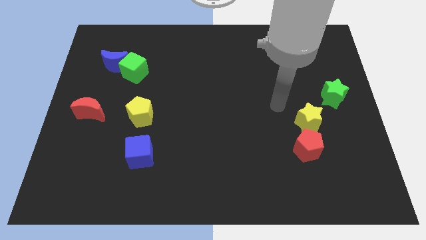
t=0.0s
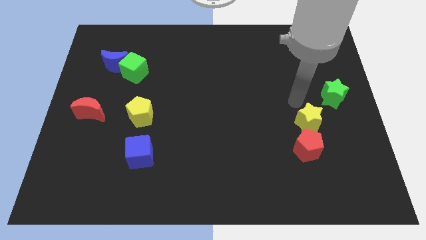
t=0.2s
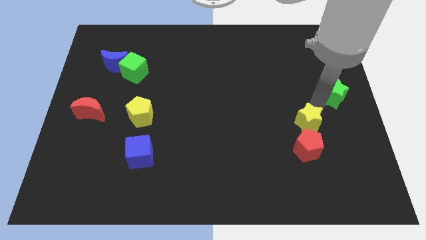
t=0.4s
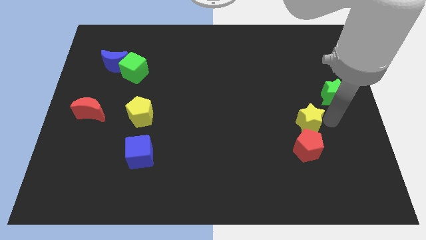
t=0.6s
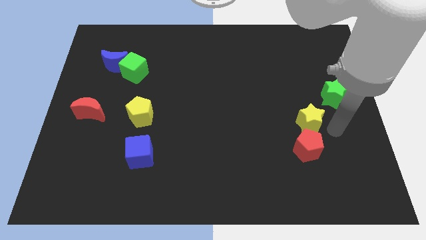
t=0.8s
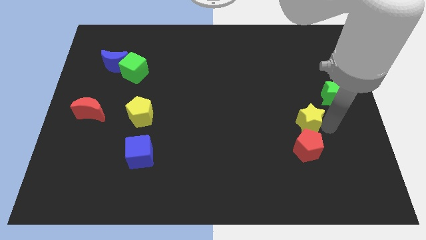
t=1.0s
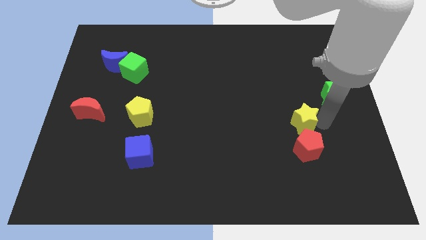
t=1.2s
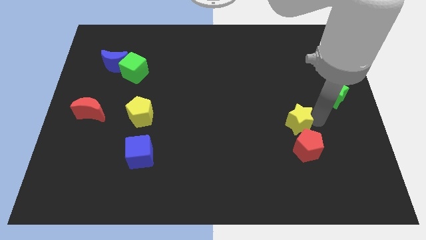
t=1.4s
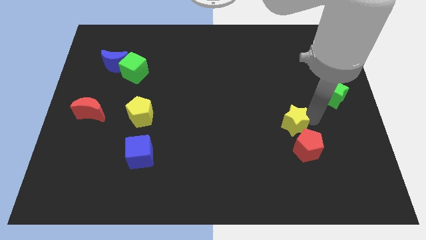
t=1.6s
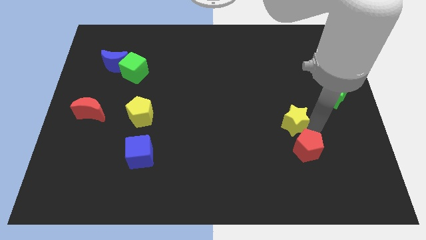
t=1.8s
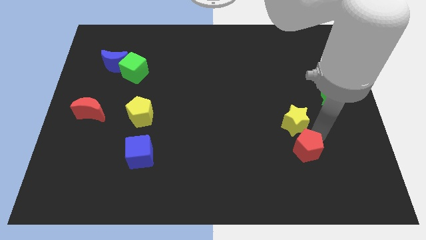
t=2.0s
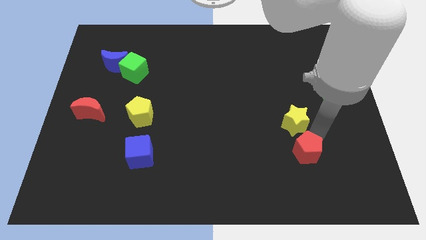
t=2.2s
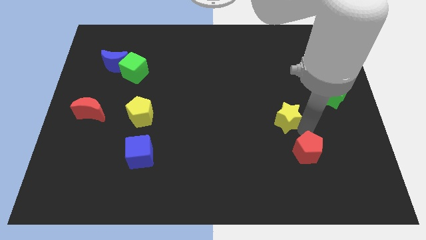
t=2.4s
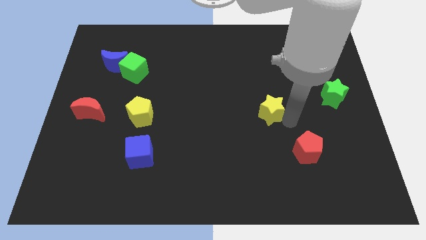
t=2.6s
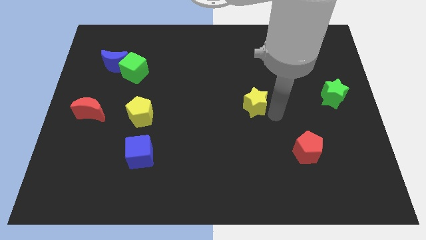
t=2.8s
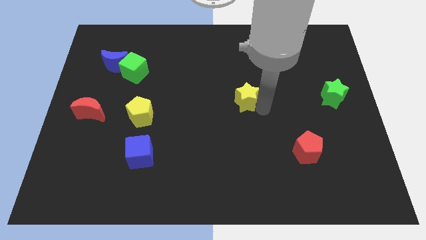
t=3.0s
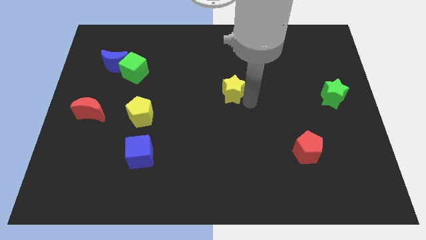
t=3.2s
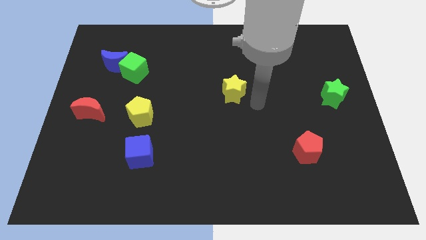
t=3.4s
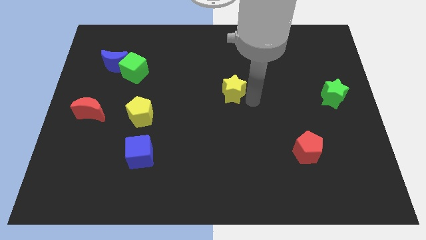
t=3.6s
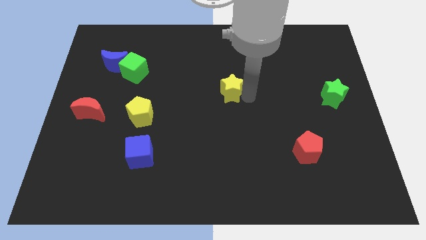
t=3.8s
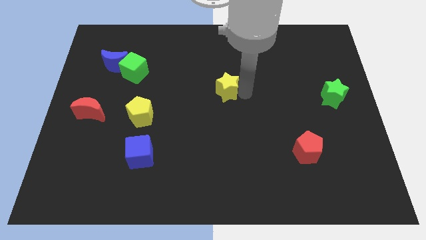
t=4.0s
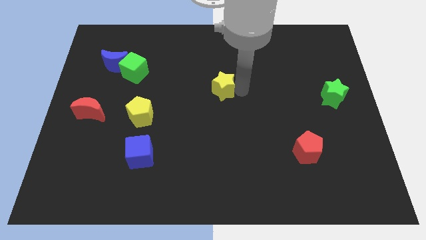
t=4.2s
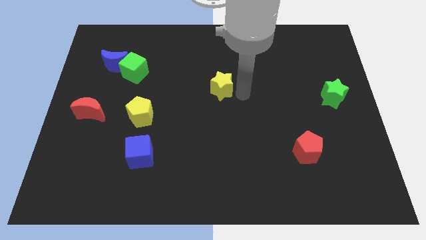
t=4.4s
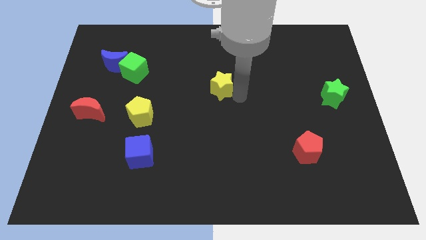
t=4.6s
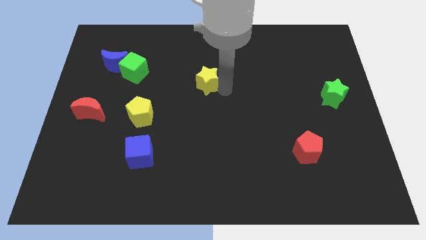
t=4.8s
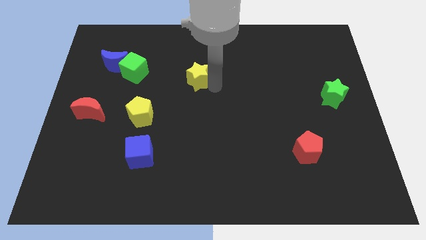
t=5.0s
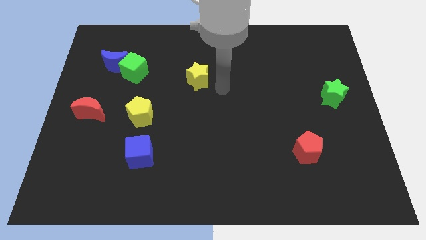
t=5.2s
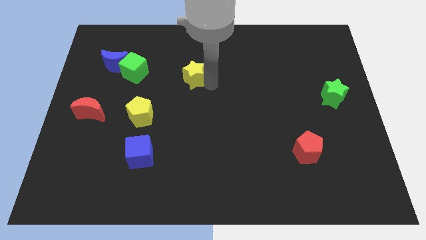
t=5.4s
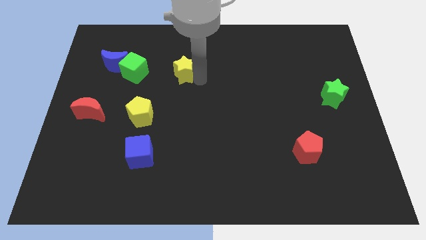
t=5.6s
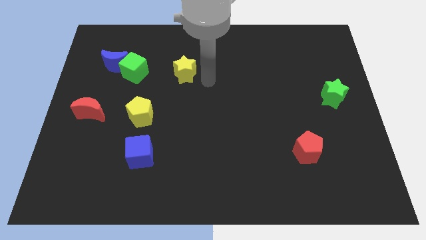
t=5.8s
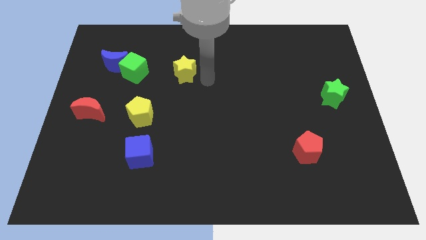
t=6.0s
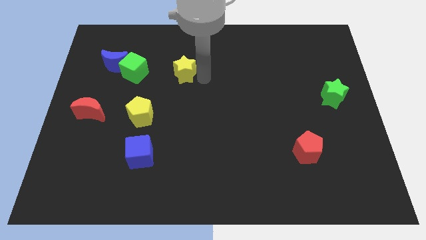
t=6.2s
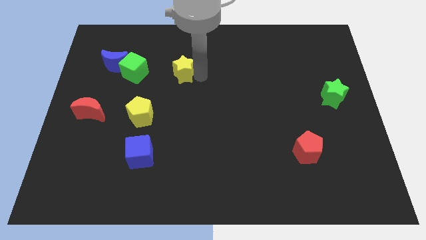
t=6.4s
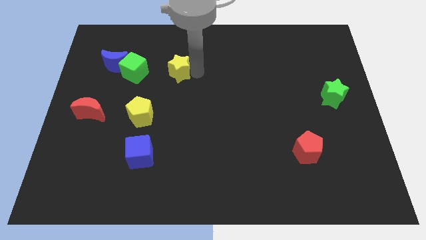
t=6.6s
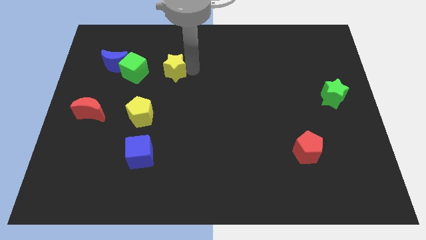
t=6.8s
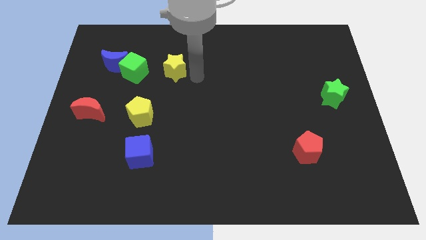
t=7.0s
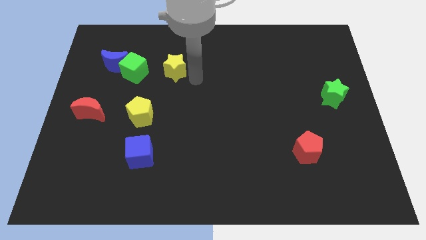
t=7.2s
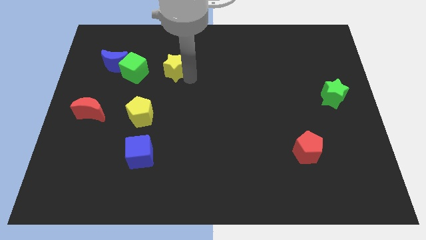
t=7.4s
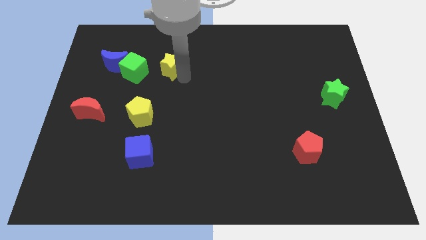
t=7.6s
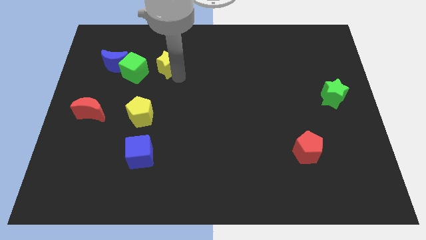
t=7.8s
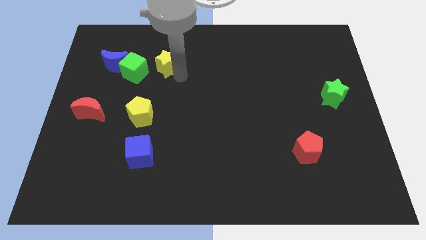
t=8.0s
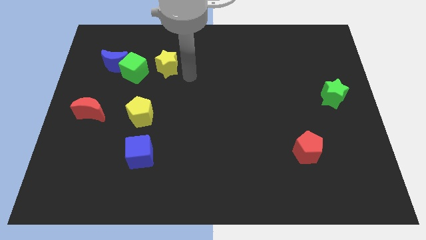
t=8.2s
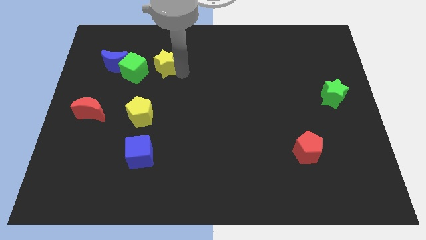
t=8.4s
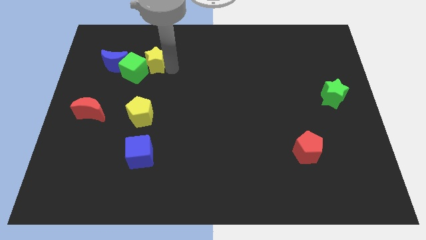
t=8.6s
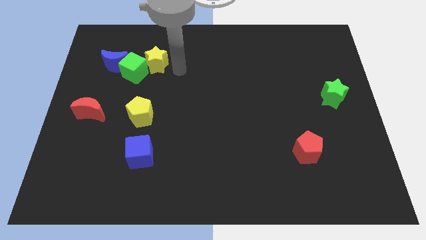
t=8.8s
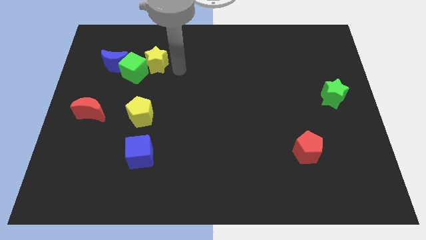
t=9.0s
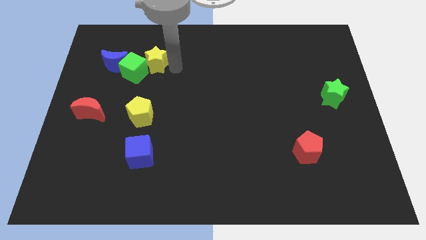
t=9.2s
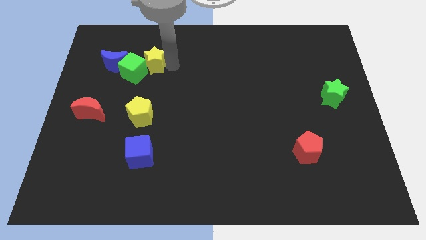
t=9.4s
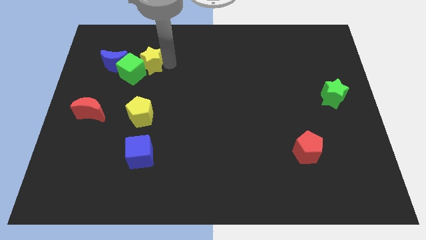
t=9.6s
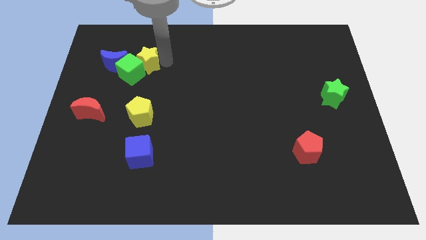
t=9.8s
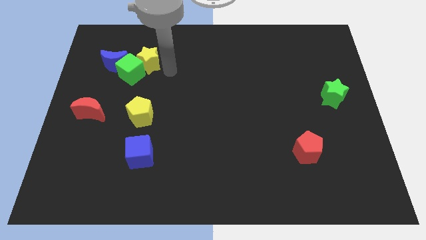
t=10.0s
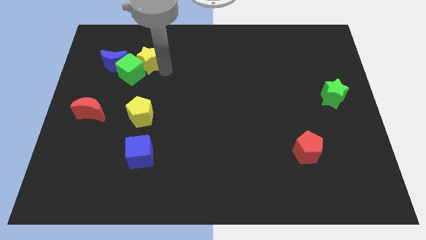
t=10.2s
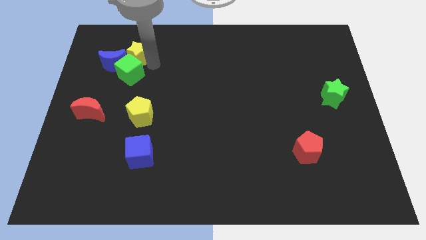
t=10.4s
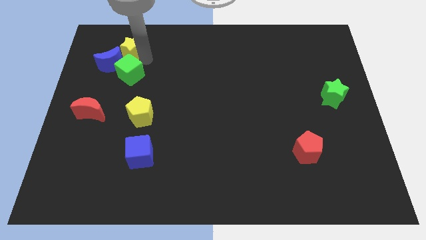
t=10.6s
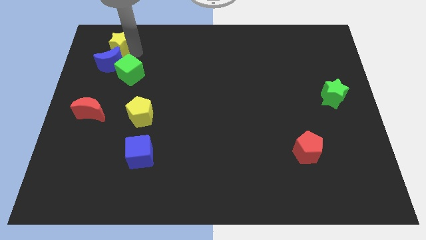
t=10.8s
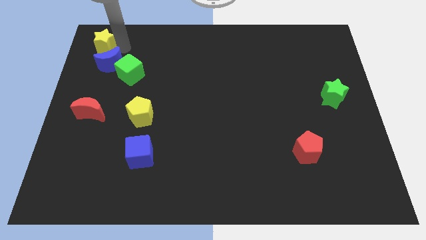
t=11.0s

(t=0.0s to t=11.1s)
put the yellow star to the top left

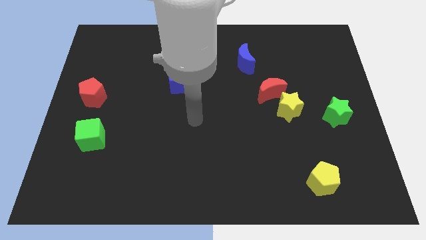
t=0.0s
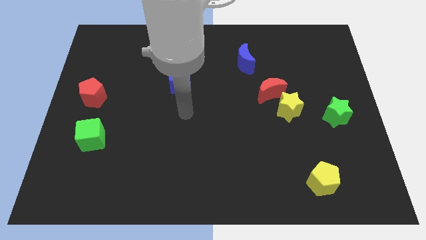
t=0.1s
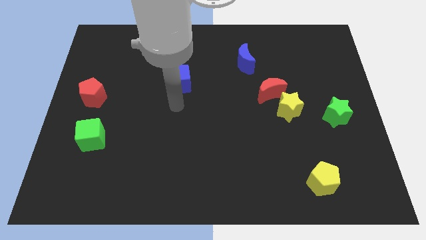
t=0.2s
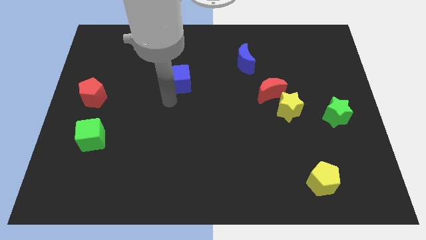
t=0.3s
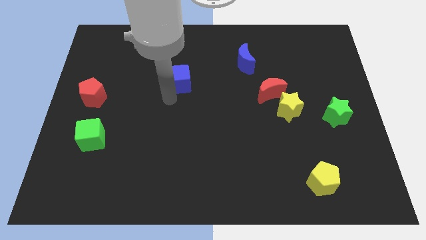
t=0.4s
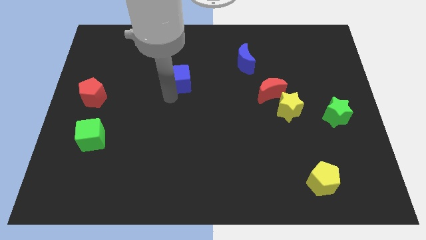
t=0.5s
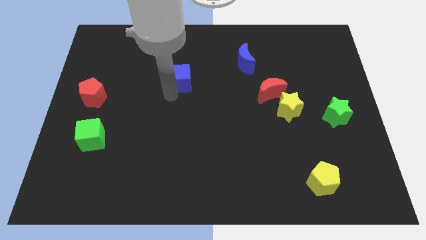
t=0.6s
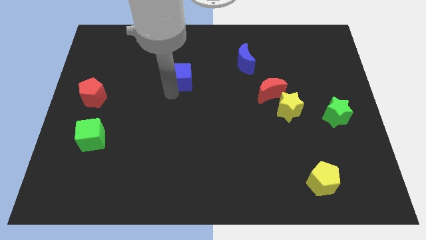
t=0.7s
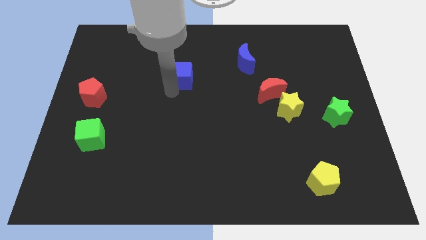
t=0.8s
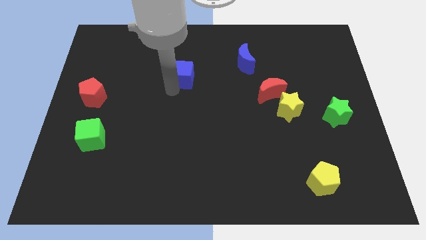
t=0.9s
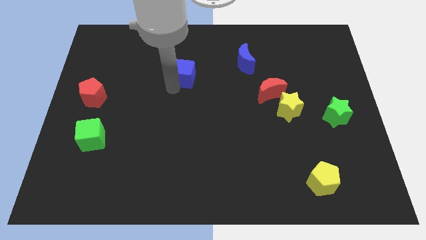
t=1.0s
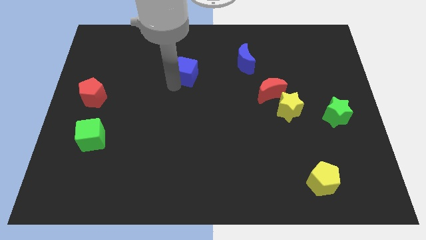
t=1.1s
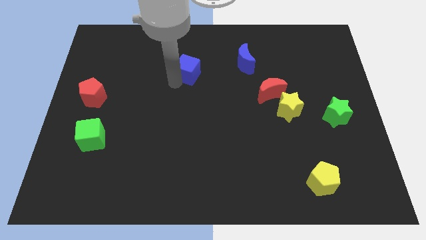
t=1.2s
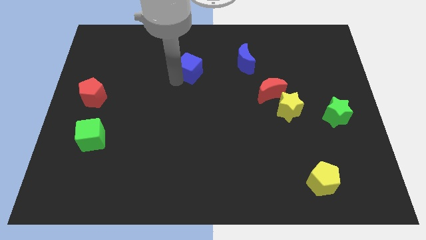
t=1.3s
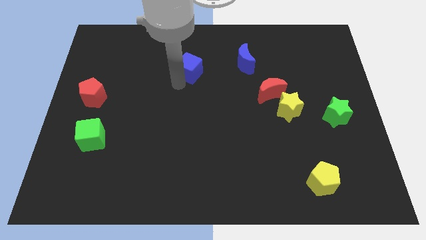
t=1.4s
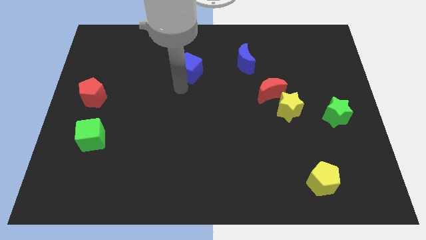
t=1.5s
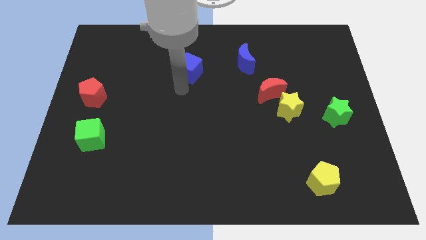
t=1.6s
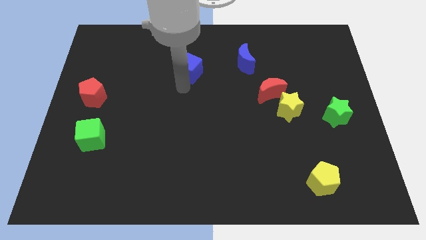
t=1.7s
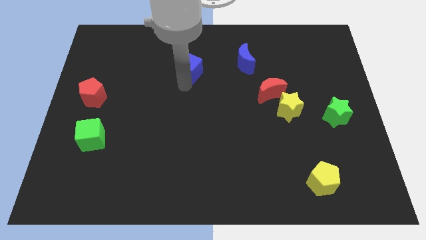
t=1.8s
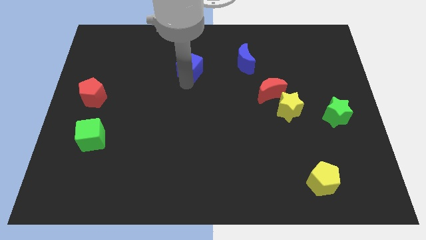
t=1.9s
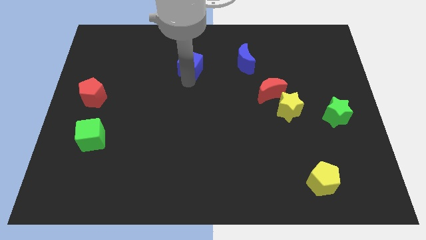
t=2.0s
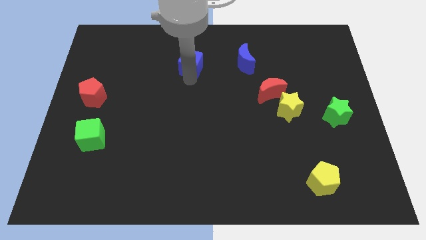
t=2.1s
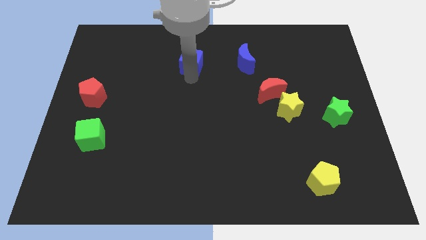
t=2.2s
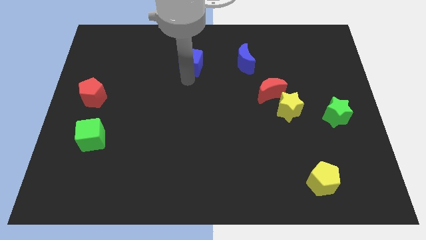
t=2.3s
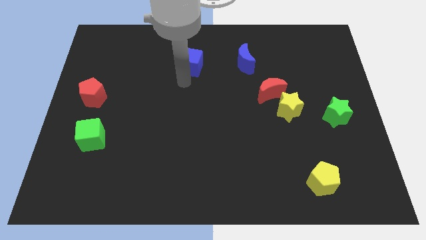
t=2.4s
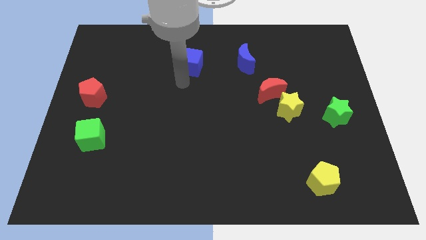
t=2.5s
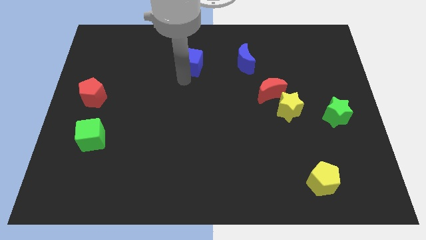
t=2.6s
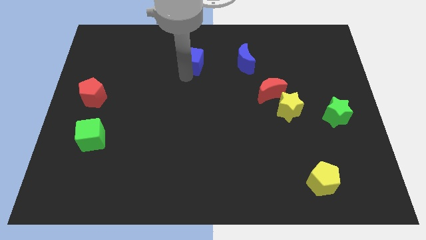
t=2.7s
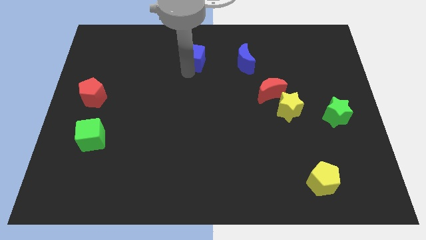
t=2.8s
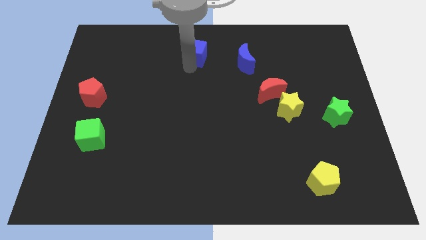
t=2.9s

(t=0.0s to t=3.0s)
put the blue cube to the towards your base
